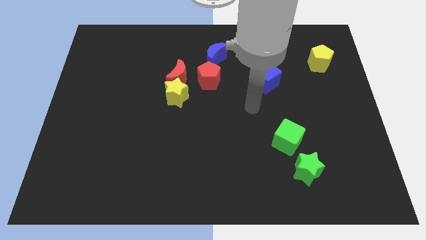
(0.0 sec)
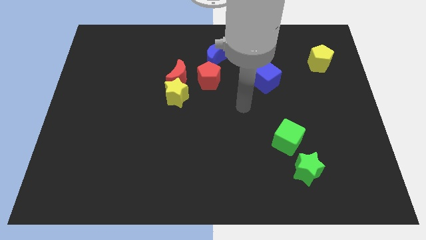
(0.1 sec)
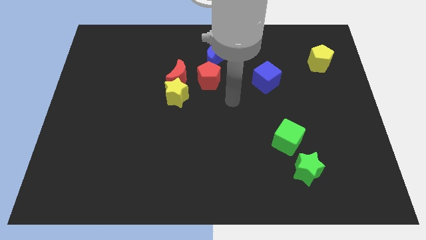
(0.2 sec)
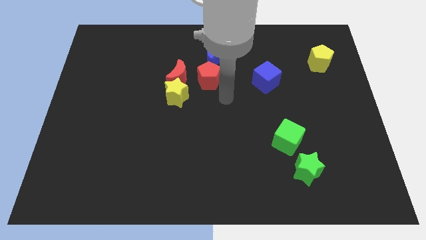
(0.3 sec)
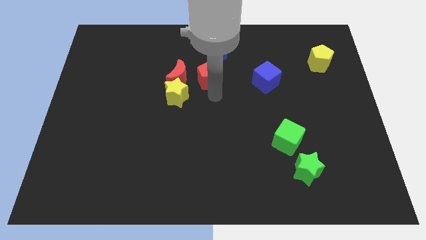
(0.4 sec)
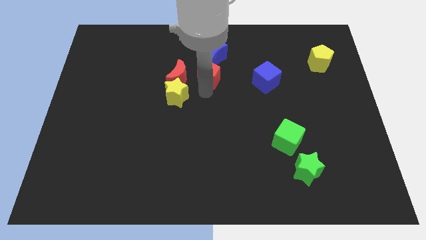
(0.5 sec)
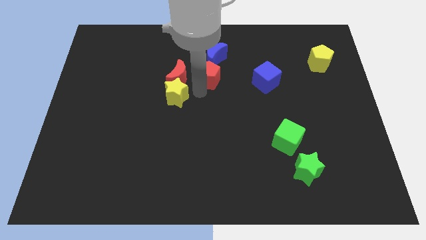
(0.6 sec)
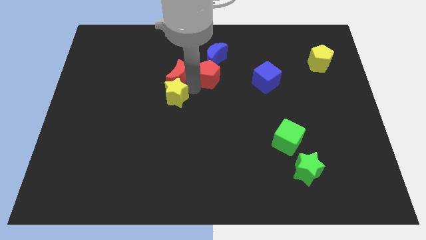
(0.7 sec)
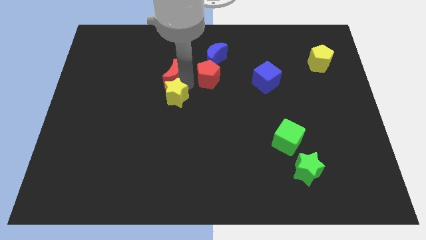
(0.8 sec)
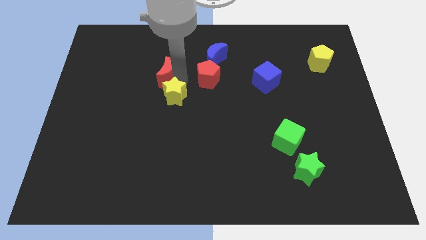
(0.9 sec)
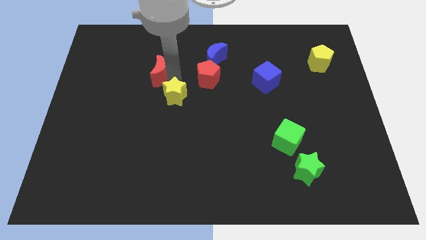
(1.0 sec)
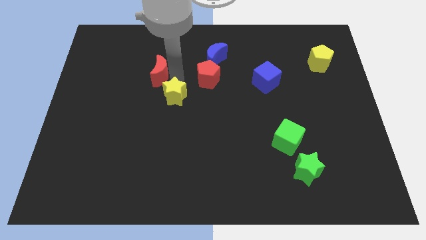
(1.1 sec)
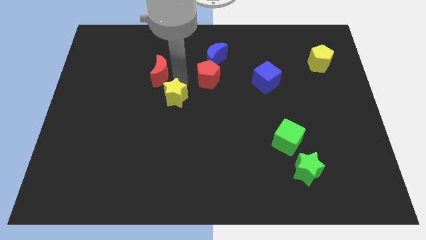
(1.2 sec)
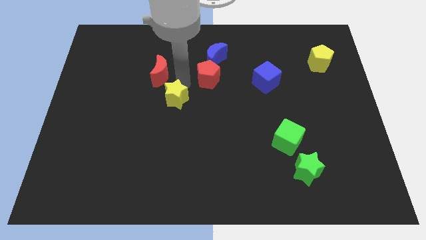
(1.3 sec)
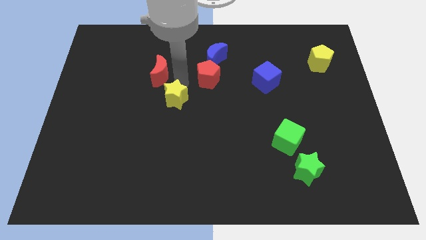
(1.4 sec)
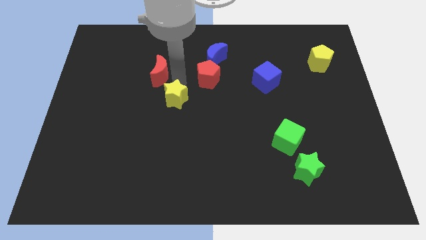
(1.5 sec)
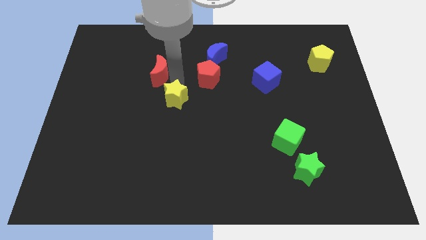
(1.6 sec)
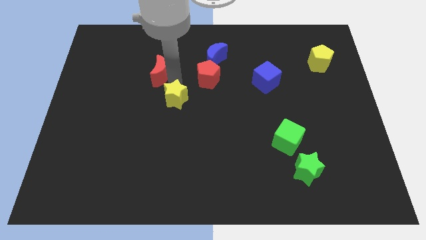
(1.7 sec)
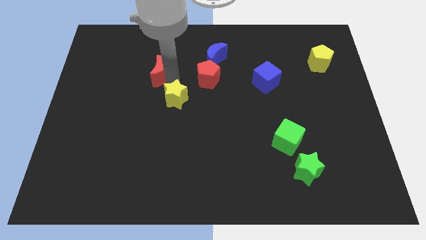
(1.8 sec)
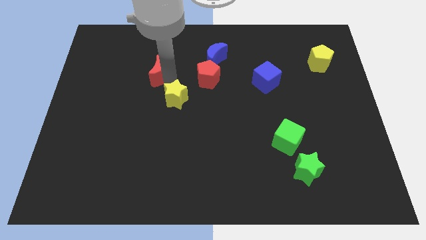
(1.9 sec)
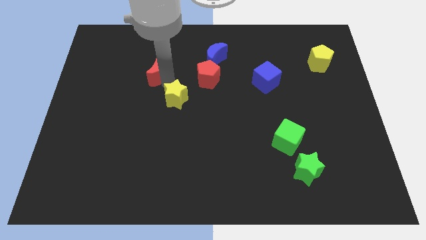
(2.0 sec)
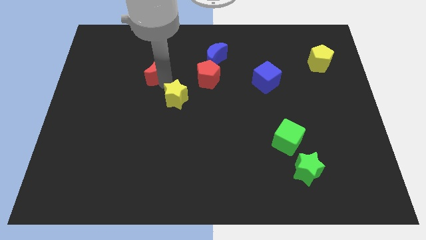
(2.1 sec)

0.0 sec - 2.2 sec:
separate the red moon from the yellow star and red pentagon

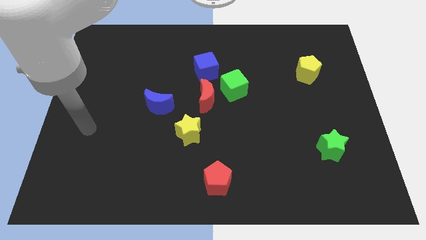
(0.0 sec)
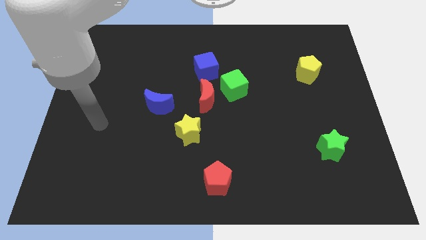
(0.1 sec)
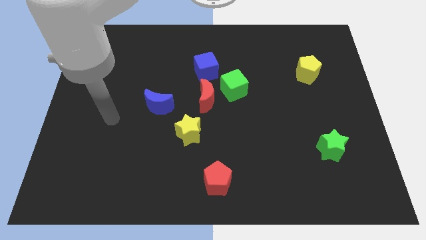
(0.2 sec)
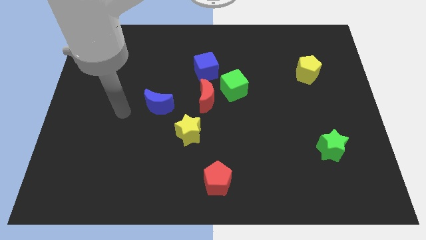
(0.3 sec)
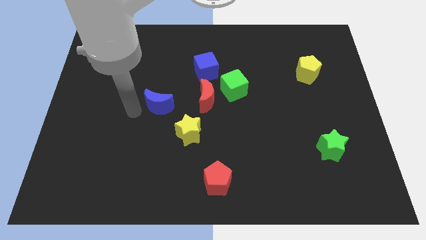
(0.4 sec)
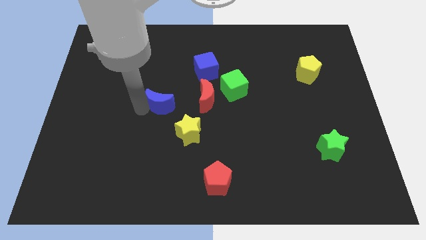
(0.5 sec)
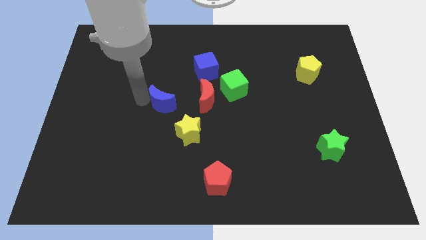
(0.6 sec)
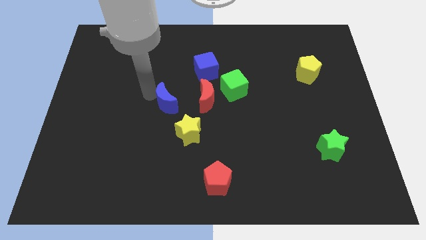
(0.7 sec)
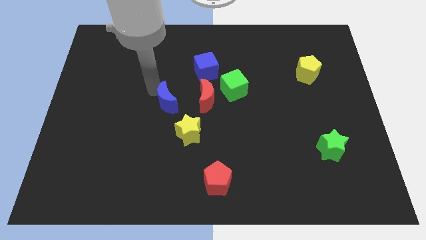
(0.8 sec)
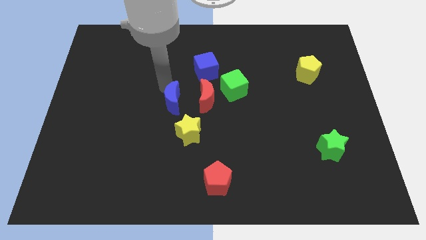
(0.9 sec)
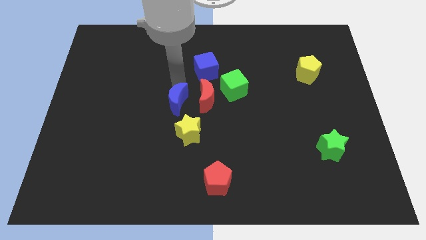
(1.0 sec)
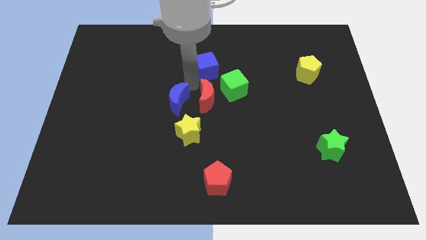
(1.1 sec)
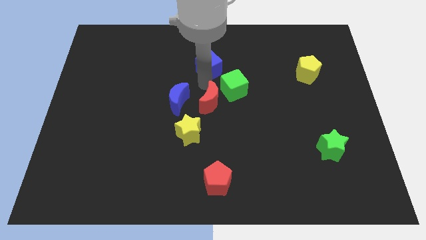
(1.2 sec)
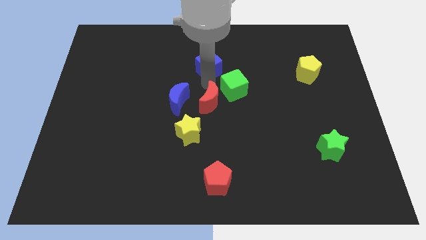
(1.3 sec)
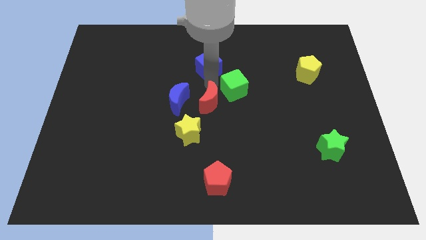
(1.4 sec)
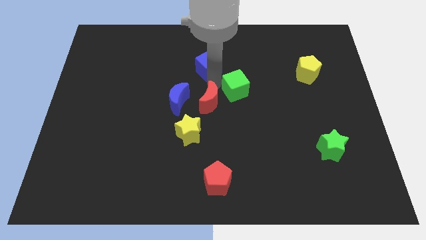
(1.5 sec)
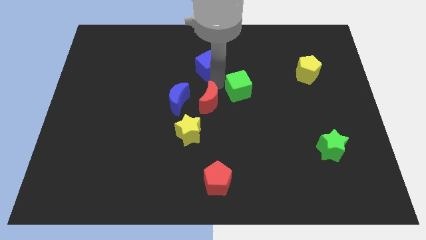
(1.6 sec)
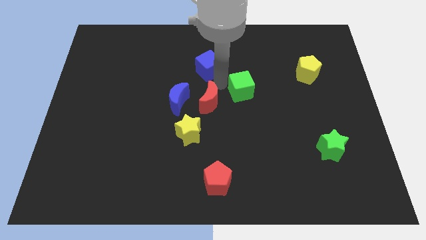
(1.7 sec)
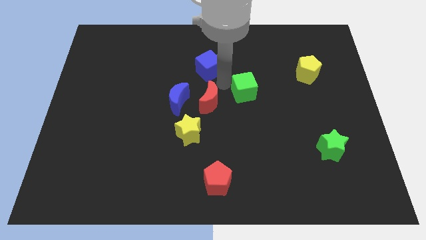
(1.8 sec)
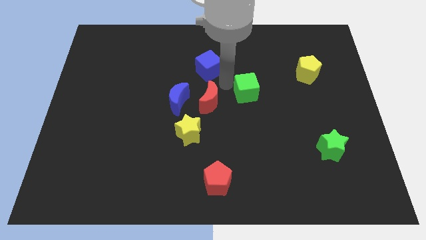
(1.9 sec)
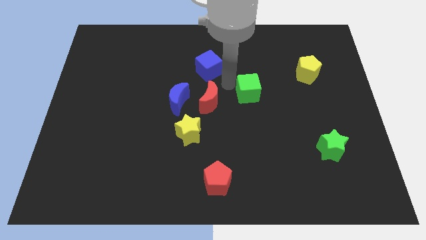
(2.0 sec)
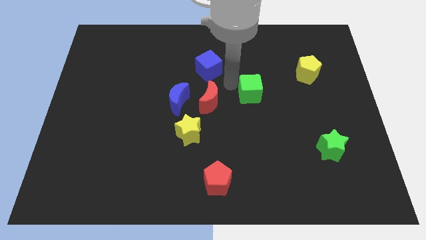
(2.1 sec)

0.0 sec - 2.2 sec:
move the green cube away from the red moon and blue cube

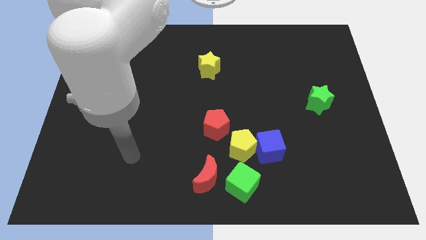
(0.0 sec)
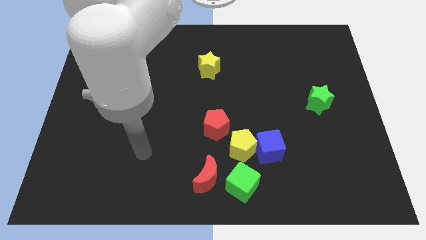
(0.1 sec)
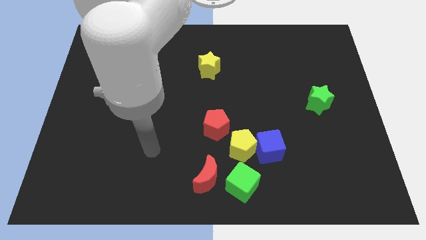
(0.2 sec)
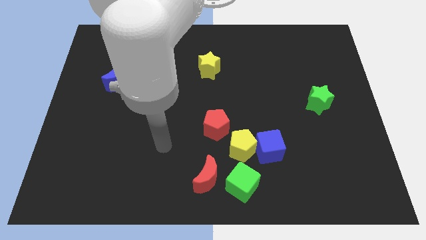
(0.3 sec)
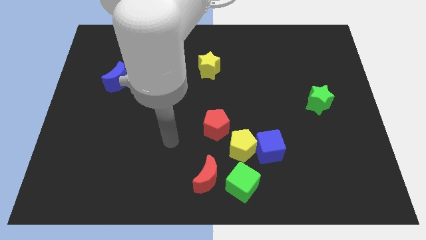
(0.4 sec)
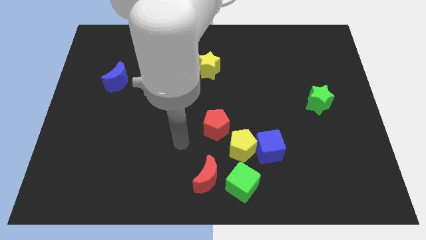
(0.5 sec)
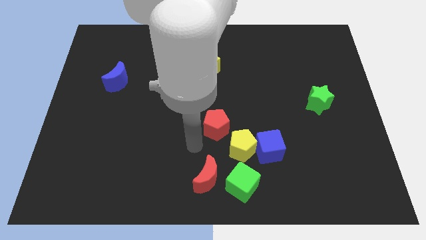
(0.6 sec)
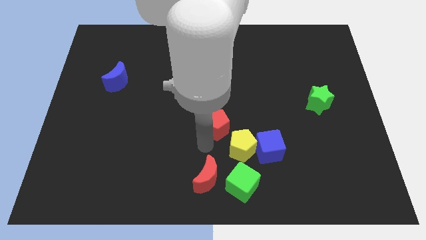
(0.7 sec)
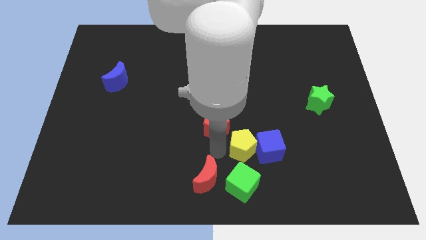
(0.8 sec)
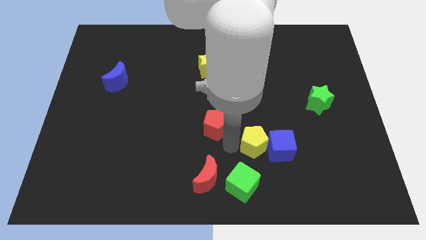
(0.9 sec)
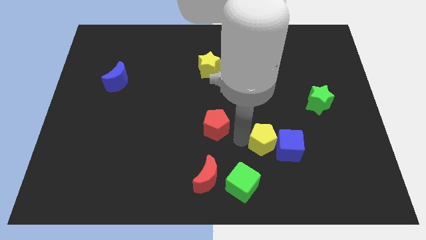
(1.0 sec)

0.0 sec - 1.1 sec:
separate the red pentagon from the yellow pentagon

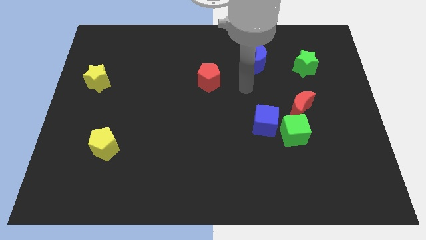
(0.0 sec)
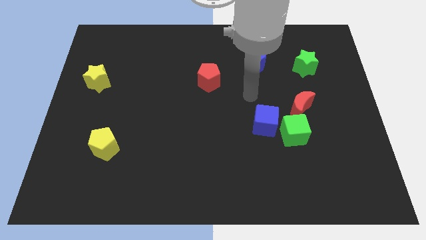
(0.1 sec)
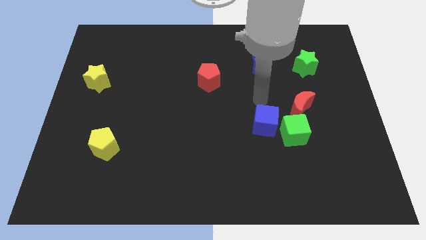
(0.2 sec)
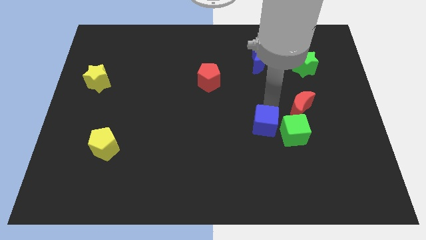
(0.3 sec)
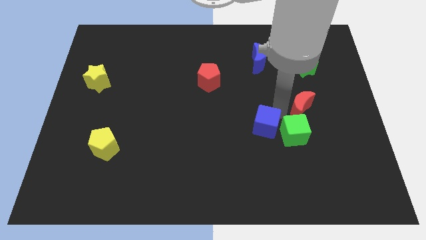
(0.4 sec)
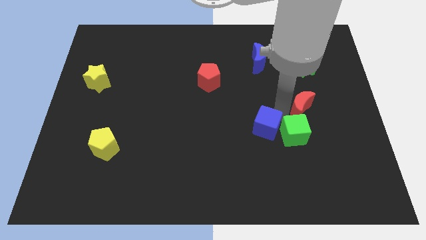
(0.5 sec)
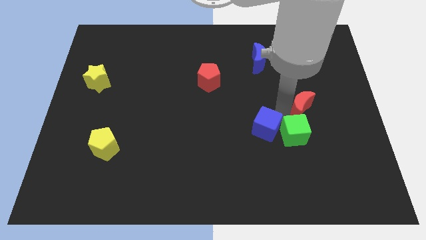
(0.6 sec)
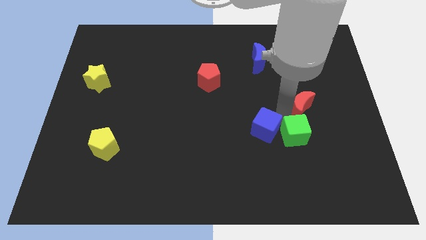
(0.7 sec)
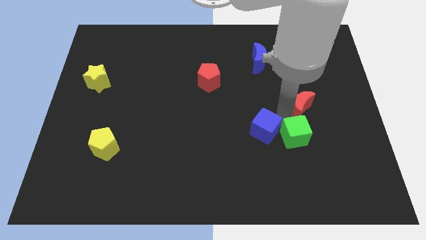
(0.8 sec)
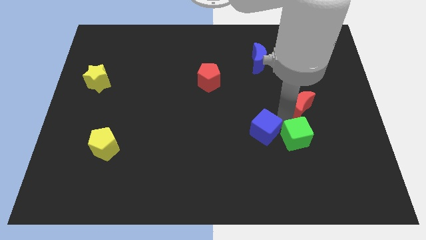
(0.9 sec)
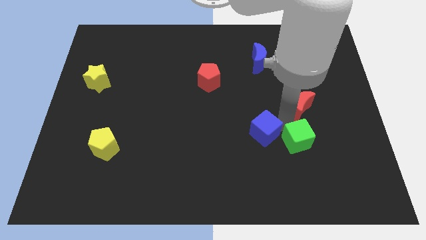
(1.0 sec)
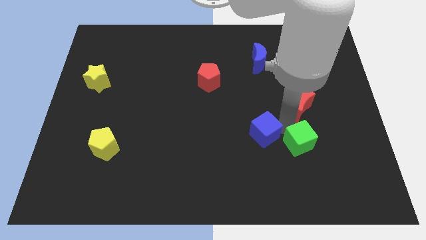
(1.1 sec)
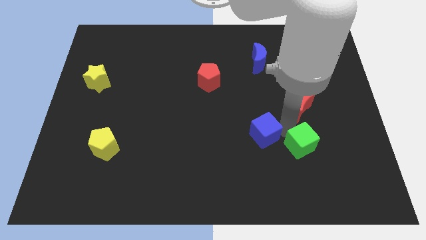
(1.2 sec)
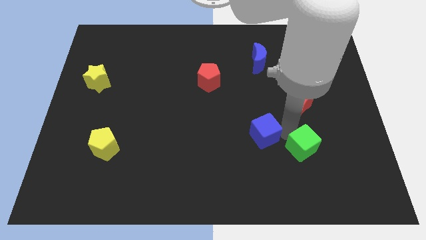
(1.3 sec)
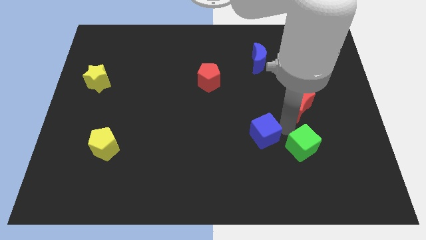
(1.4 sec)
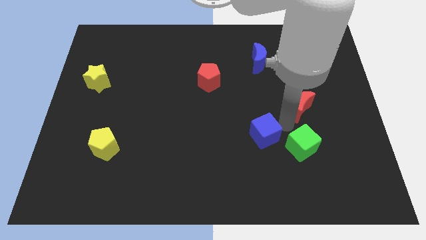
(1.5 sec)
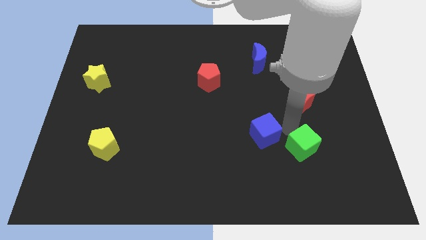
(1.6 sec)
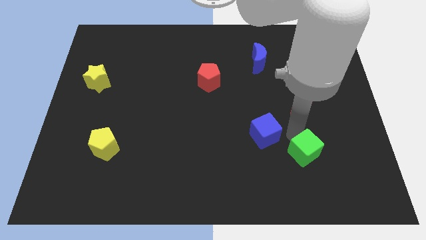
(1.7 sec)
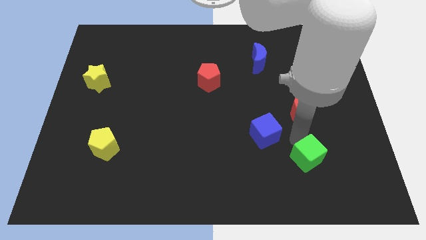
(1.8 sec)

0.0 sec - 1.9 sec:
separate the green cube from the blue cube and red moon

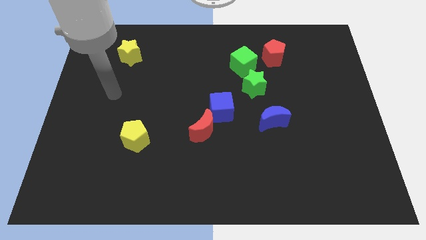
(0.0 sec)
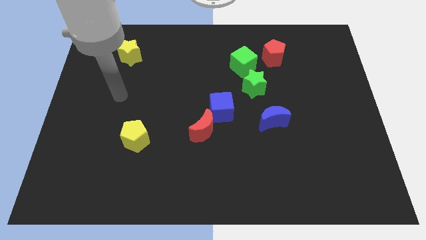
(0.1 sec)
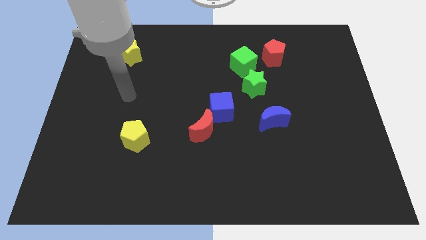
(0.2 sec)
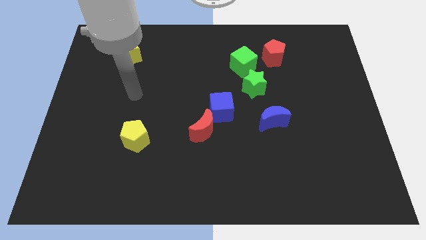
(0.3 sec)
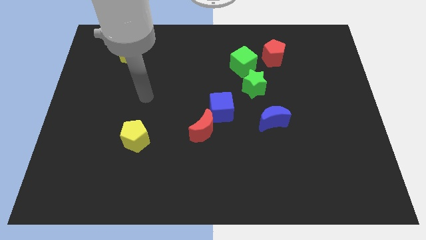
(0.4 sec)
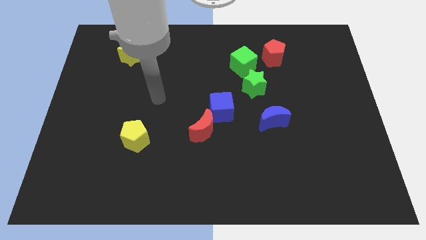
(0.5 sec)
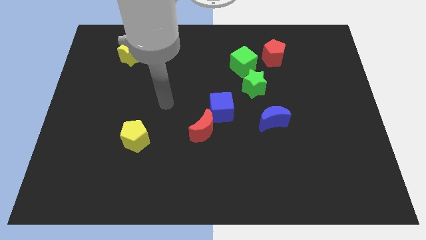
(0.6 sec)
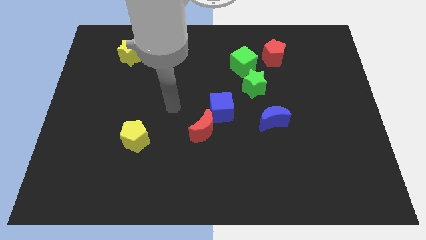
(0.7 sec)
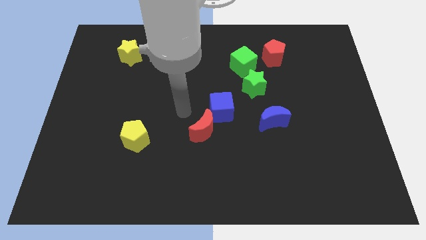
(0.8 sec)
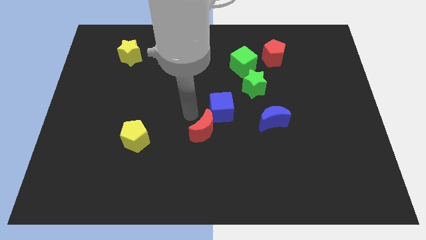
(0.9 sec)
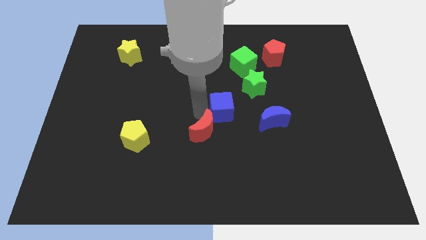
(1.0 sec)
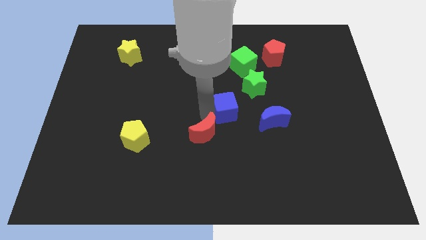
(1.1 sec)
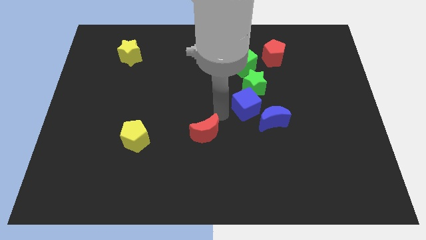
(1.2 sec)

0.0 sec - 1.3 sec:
pull the red moon apart from the blue cube

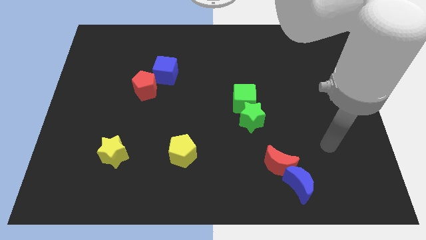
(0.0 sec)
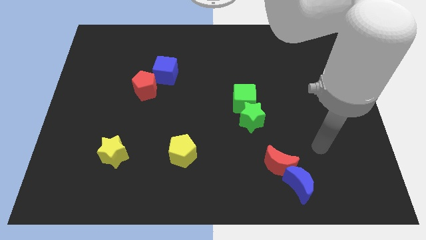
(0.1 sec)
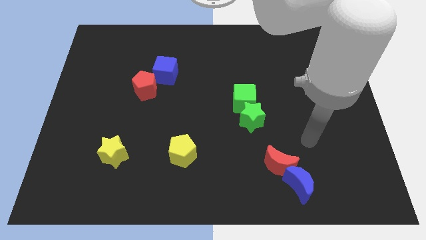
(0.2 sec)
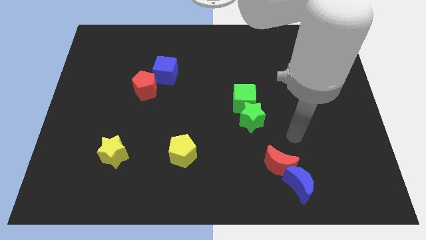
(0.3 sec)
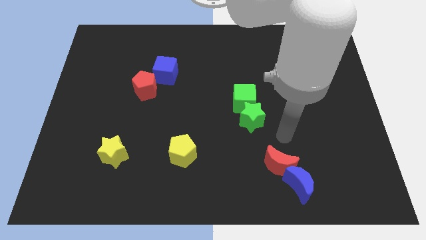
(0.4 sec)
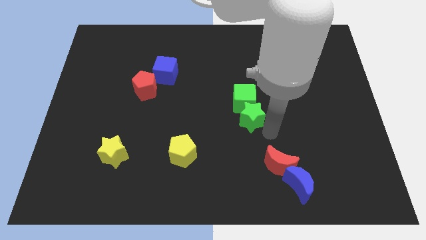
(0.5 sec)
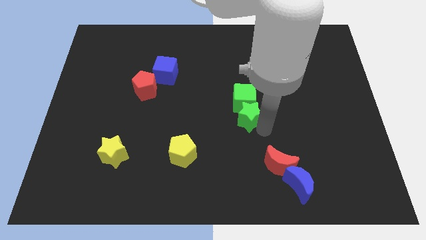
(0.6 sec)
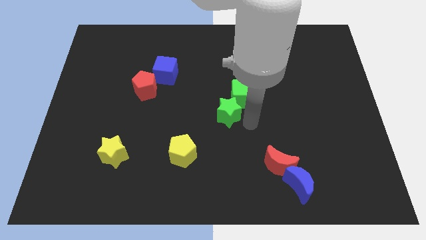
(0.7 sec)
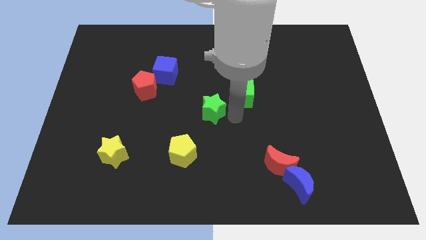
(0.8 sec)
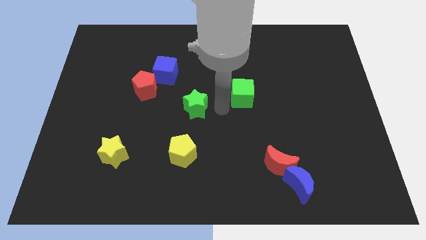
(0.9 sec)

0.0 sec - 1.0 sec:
separate the green cube from the green star
